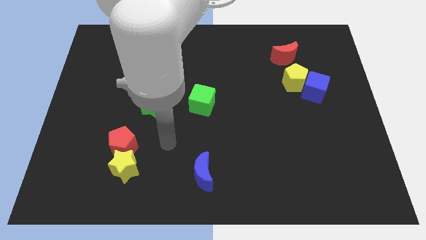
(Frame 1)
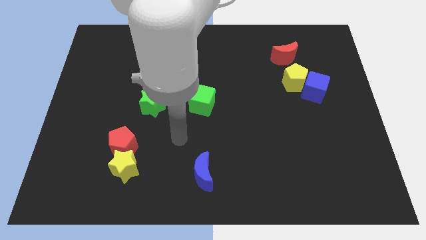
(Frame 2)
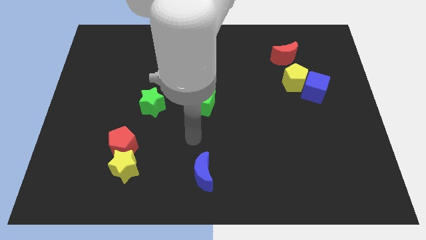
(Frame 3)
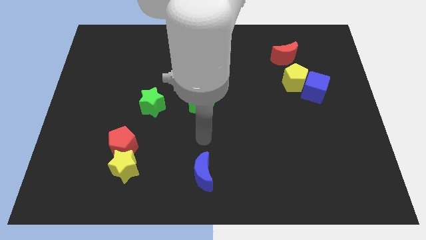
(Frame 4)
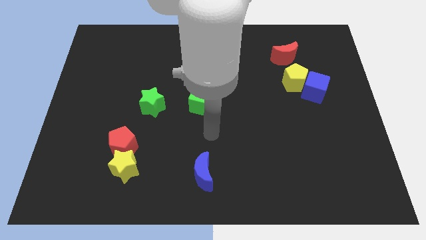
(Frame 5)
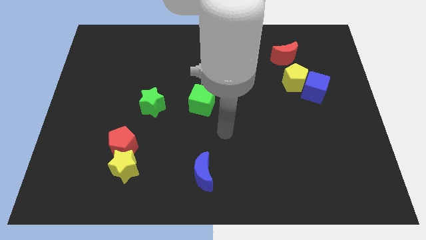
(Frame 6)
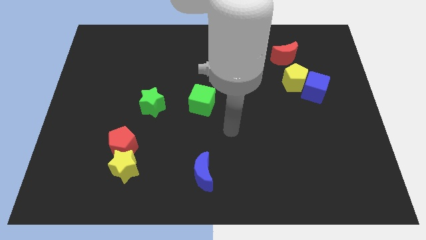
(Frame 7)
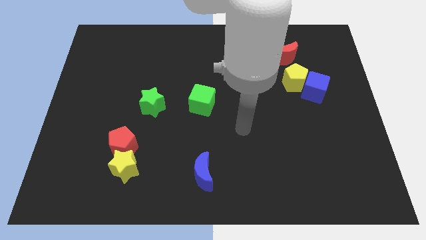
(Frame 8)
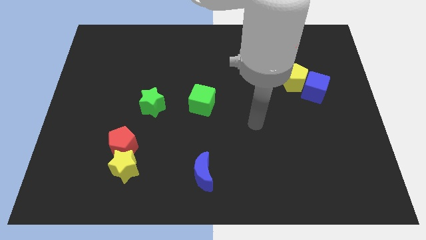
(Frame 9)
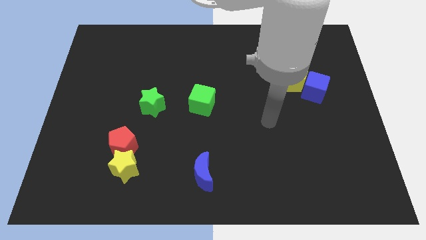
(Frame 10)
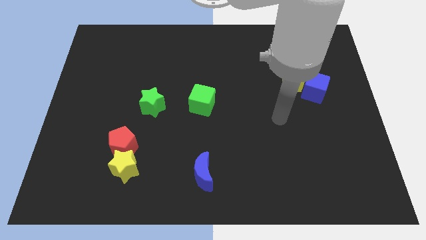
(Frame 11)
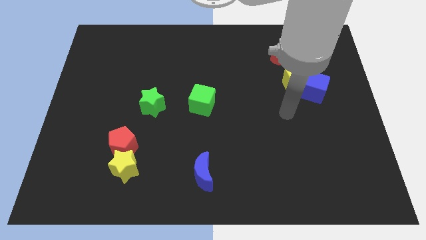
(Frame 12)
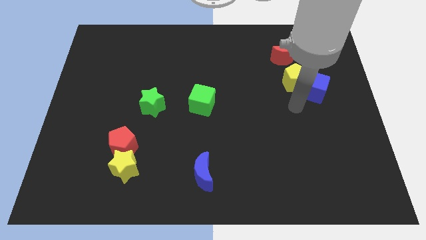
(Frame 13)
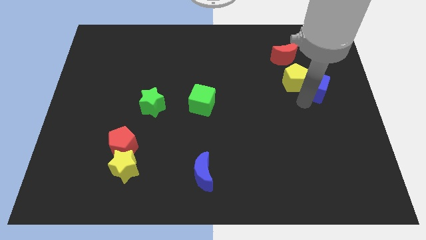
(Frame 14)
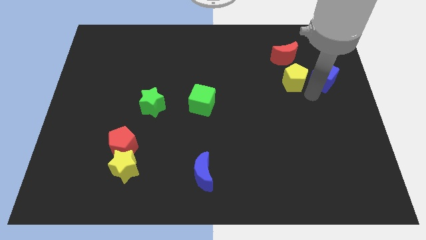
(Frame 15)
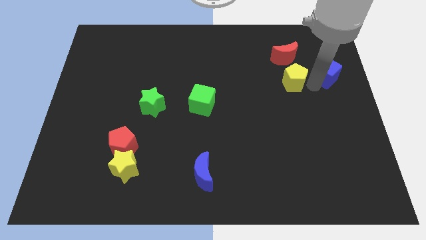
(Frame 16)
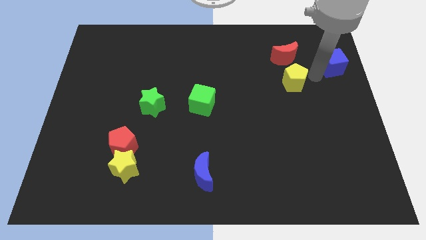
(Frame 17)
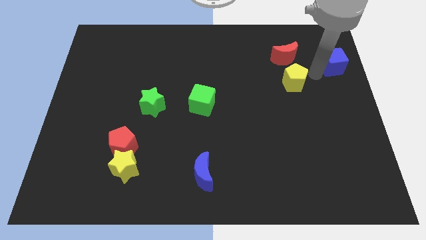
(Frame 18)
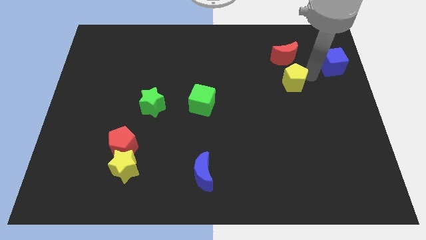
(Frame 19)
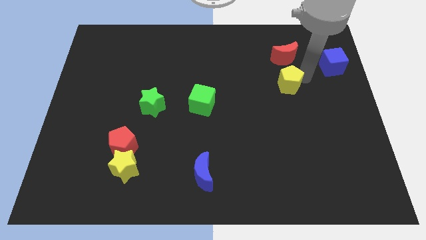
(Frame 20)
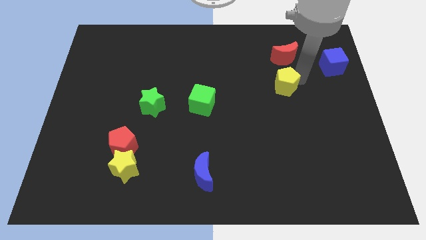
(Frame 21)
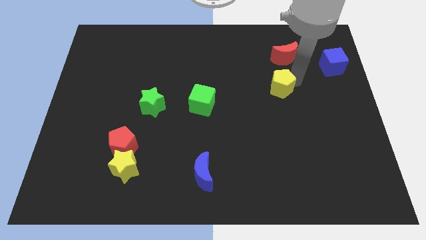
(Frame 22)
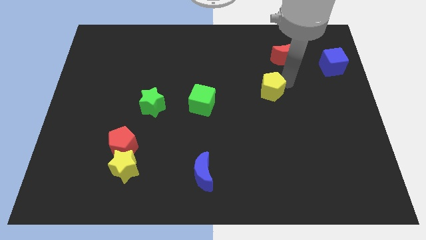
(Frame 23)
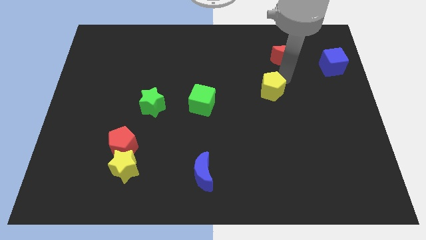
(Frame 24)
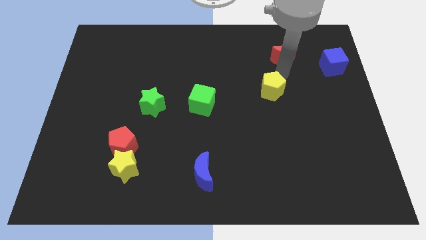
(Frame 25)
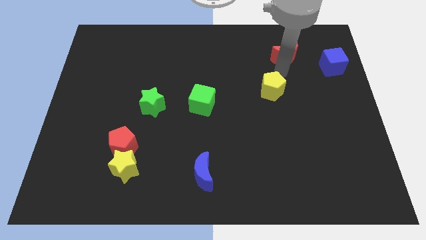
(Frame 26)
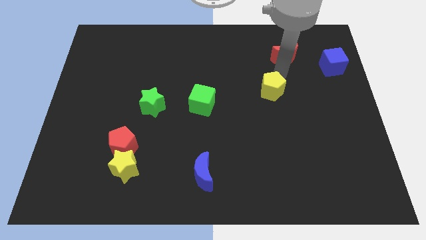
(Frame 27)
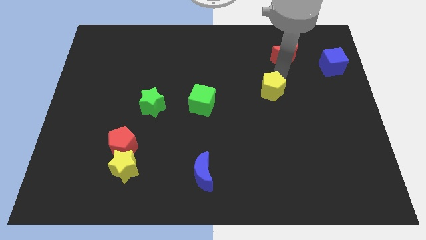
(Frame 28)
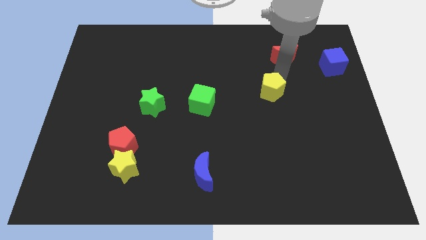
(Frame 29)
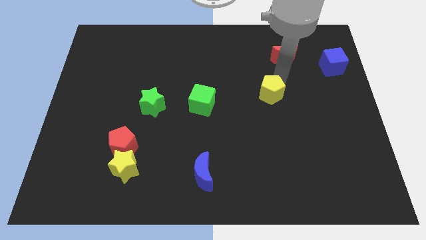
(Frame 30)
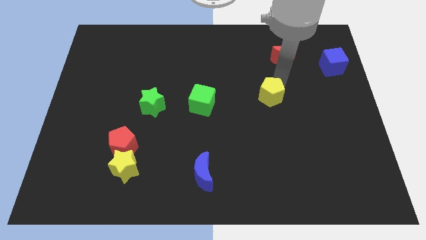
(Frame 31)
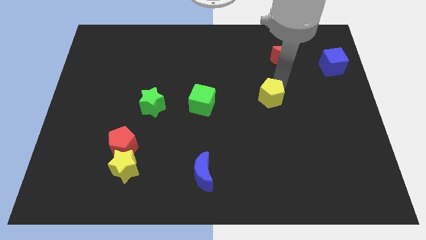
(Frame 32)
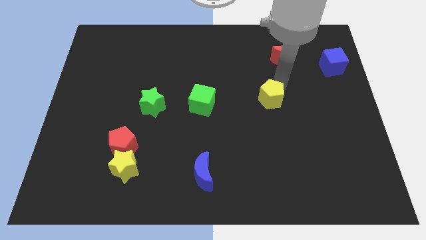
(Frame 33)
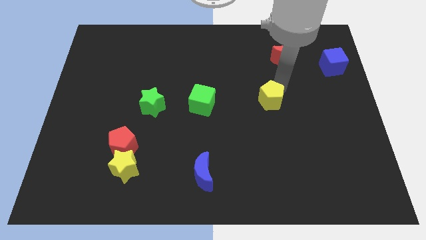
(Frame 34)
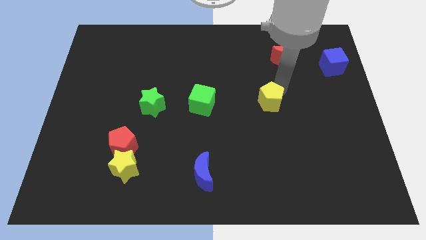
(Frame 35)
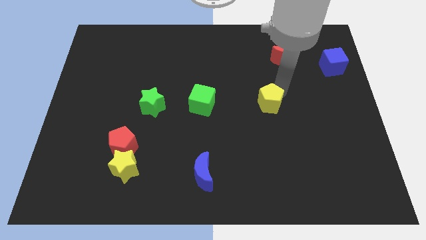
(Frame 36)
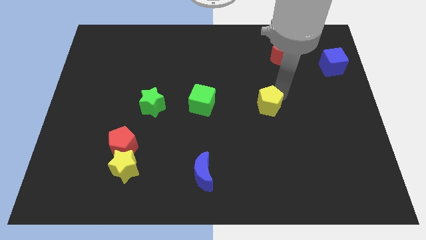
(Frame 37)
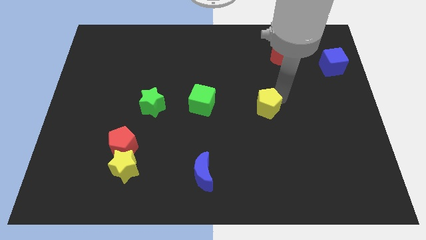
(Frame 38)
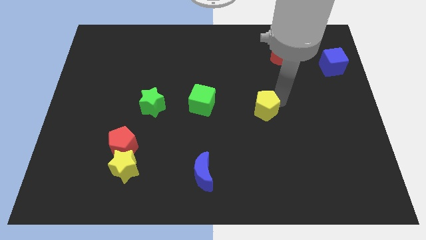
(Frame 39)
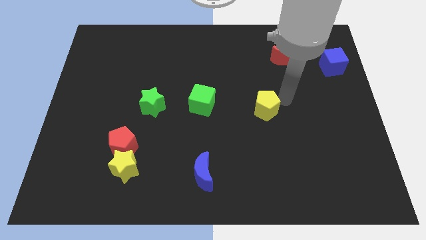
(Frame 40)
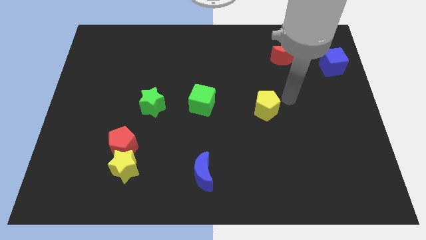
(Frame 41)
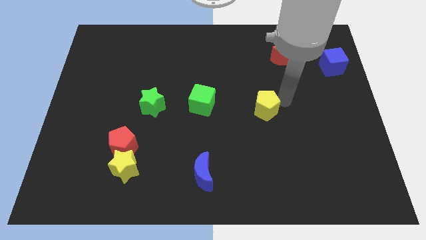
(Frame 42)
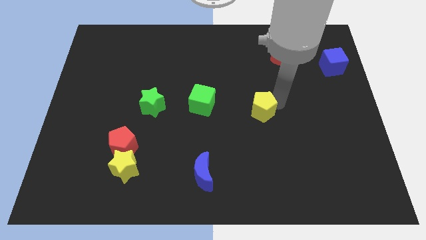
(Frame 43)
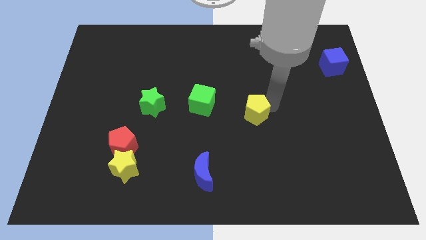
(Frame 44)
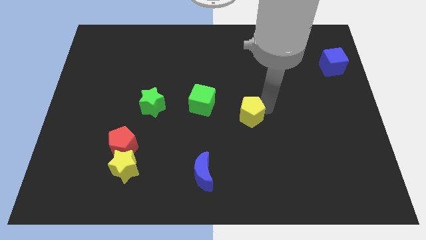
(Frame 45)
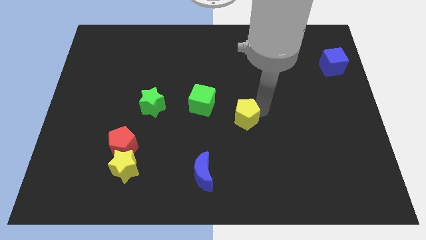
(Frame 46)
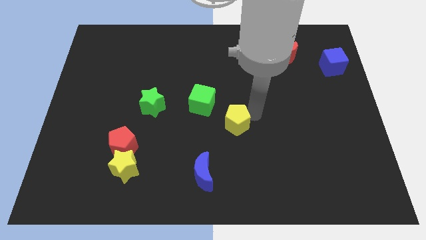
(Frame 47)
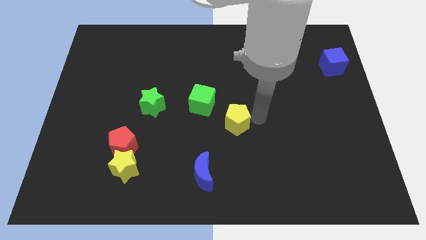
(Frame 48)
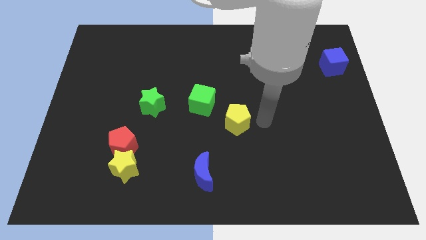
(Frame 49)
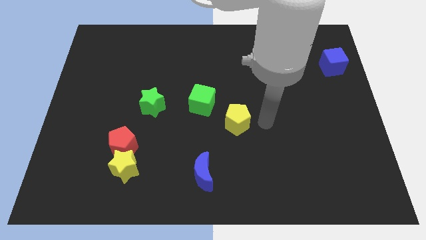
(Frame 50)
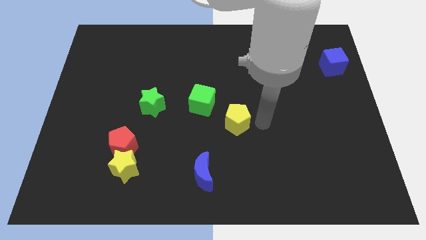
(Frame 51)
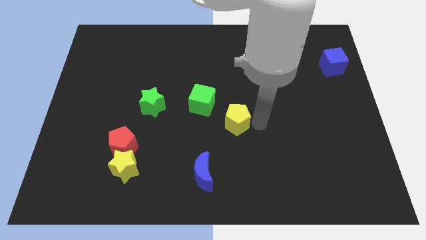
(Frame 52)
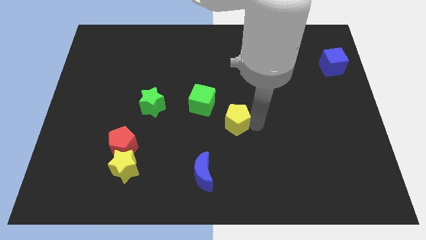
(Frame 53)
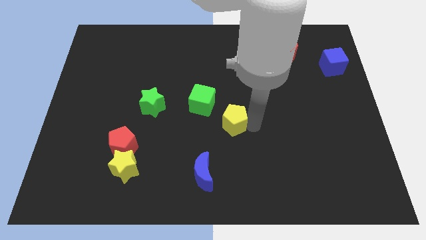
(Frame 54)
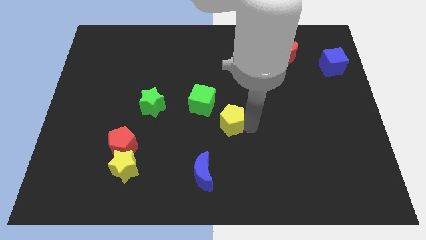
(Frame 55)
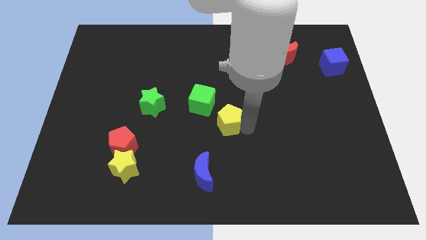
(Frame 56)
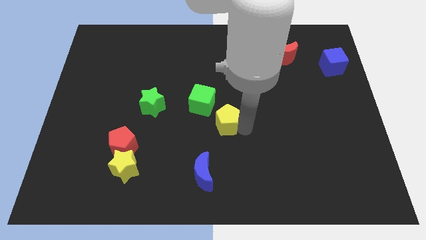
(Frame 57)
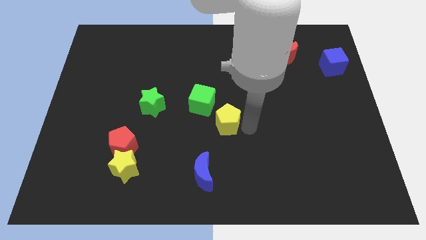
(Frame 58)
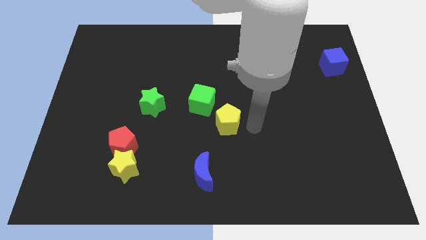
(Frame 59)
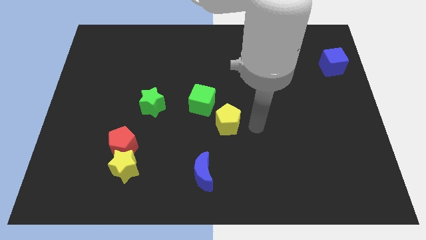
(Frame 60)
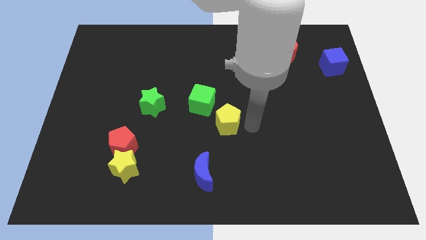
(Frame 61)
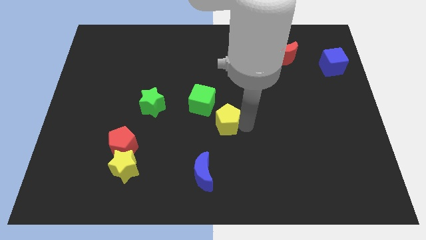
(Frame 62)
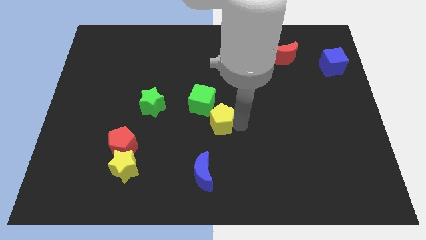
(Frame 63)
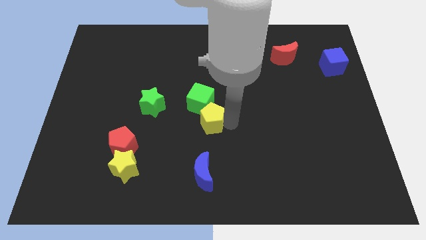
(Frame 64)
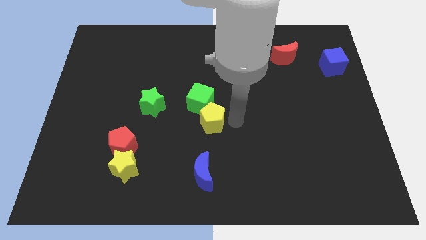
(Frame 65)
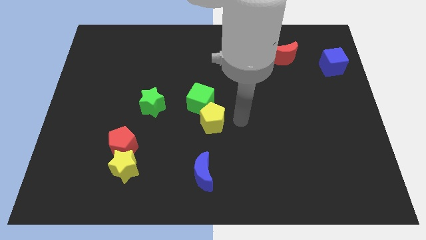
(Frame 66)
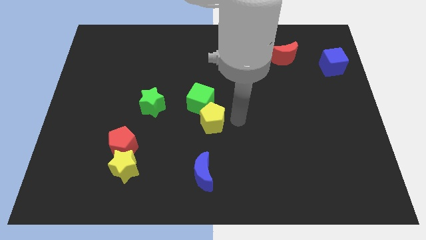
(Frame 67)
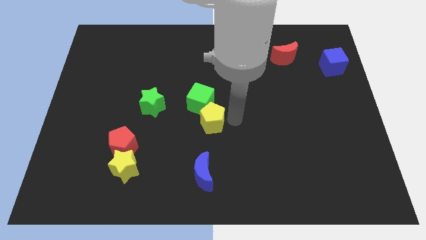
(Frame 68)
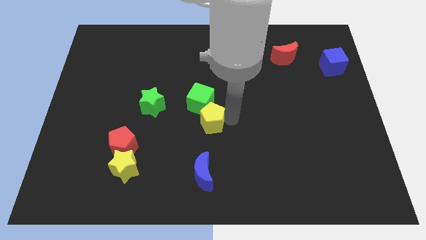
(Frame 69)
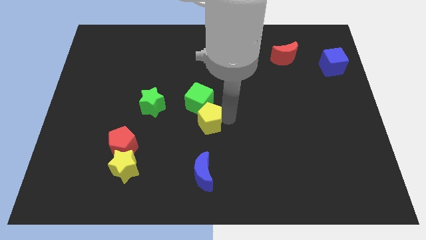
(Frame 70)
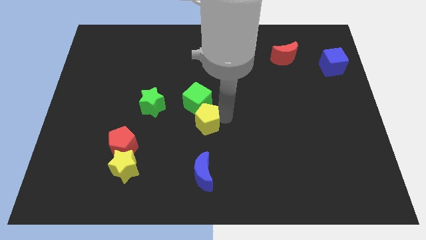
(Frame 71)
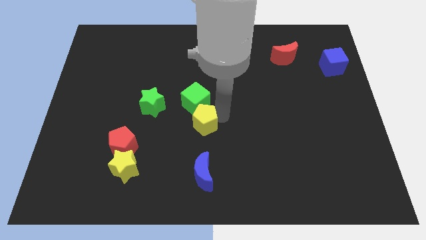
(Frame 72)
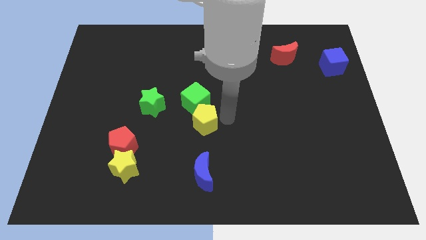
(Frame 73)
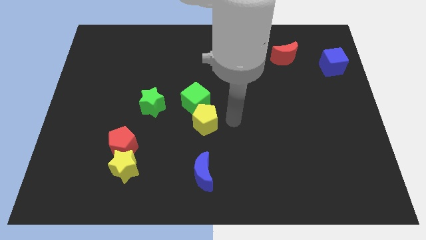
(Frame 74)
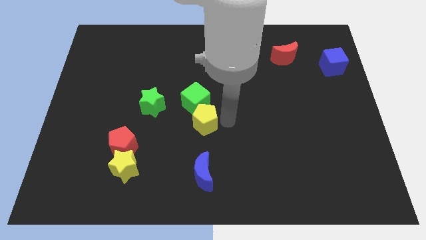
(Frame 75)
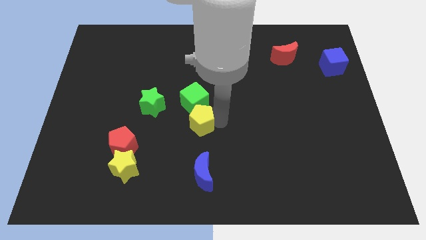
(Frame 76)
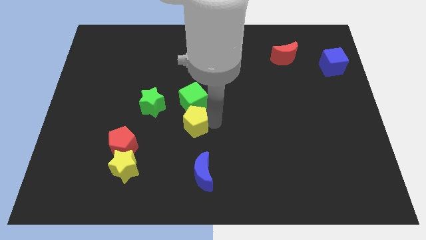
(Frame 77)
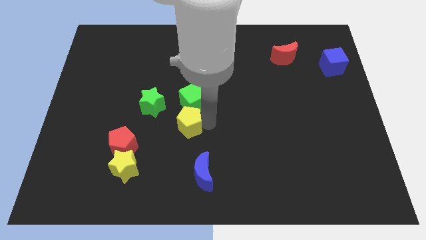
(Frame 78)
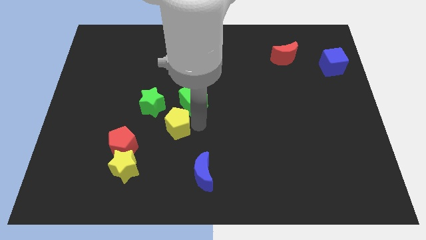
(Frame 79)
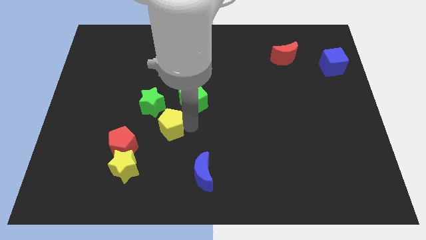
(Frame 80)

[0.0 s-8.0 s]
move the yellow pentagon to the top right of the red pentagon
